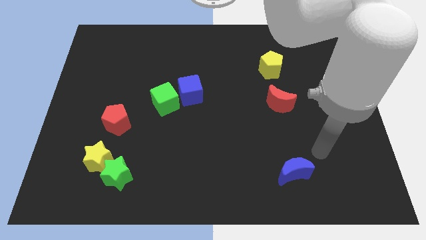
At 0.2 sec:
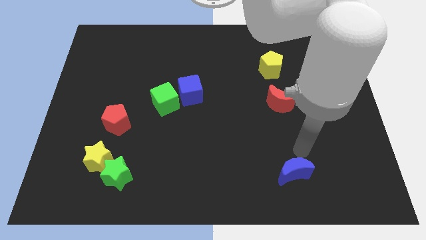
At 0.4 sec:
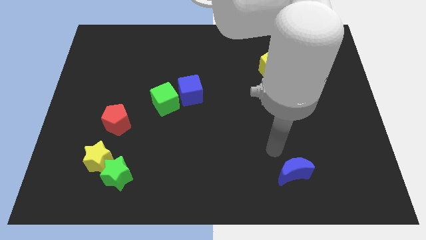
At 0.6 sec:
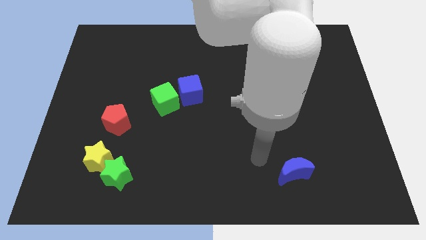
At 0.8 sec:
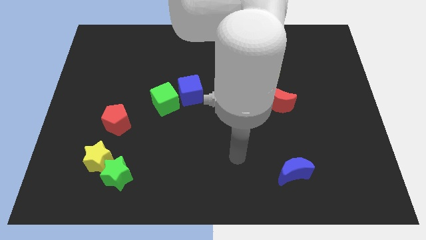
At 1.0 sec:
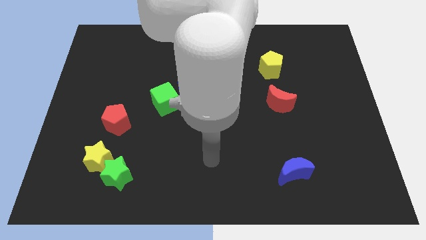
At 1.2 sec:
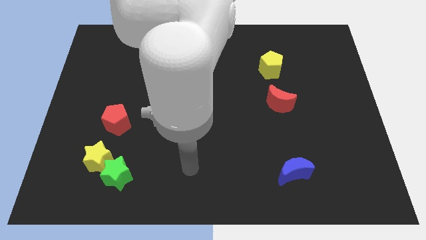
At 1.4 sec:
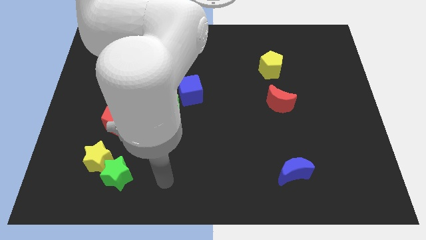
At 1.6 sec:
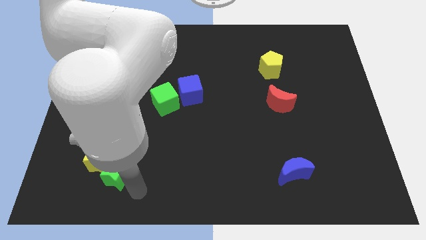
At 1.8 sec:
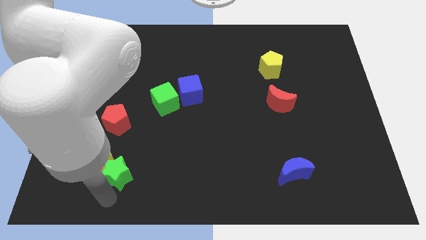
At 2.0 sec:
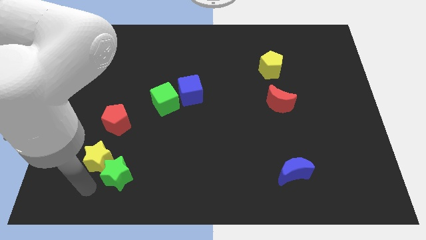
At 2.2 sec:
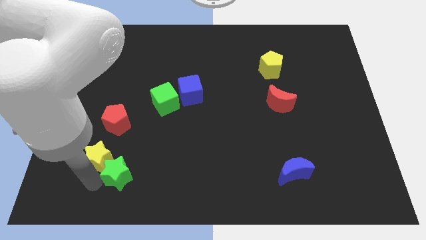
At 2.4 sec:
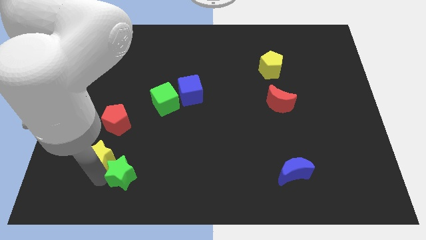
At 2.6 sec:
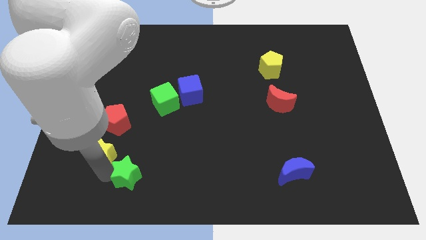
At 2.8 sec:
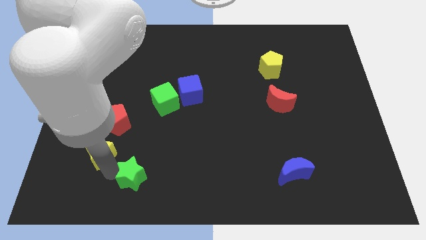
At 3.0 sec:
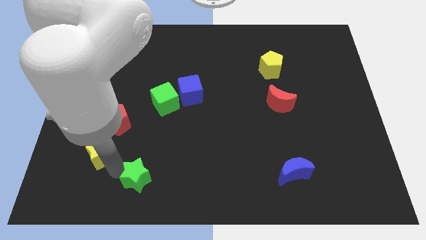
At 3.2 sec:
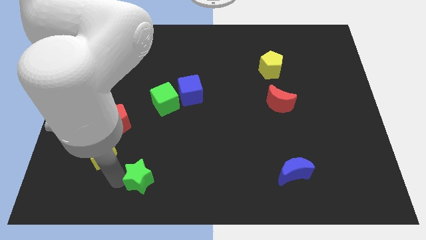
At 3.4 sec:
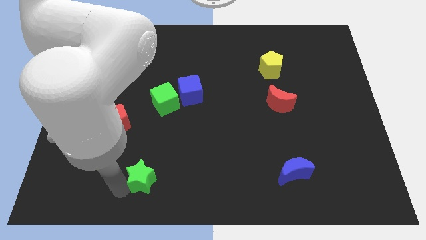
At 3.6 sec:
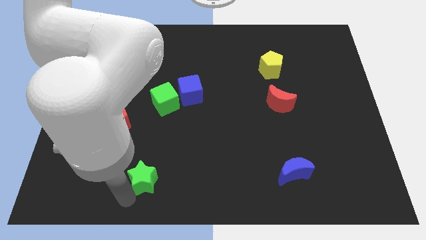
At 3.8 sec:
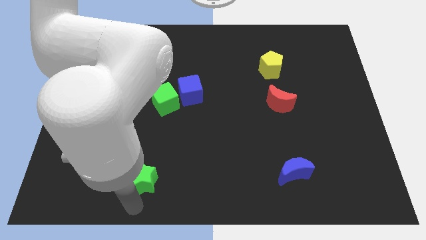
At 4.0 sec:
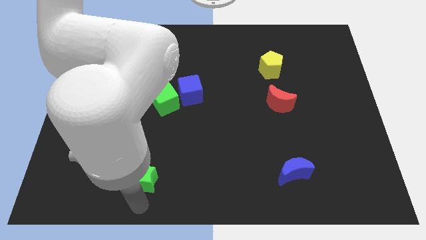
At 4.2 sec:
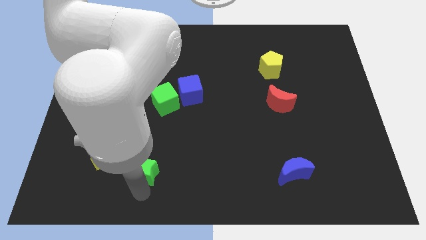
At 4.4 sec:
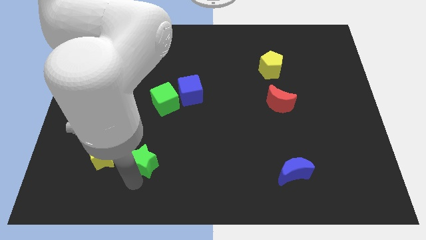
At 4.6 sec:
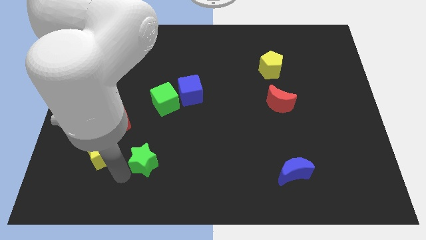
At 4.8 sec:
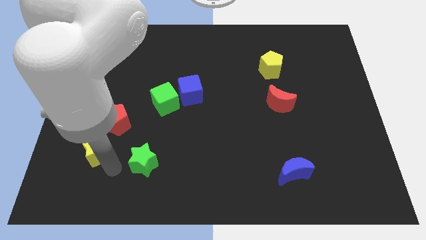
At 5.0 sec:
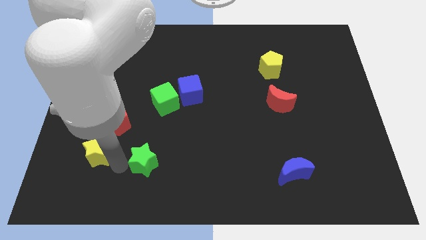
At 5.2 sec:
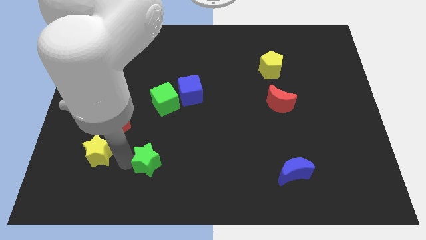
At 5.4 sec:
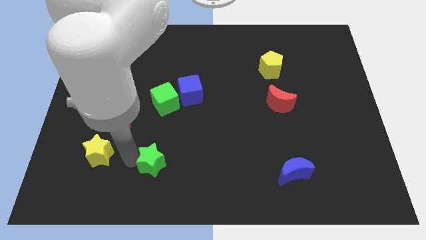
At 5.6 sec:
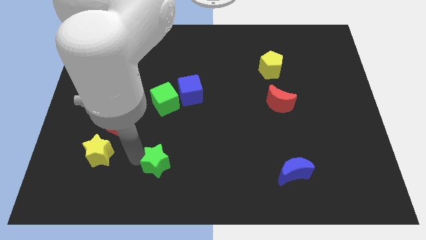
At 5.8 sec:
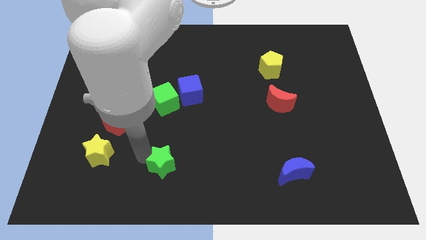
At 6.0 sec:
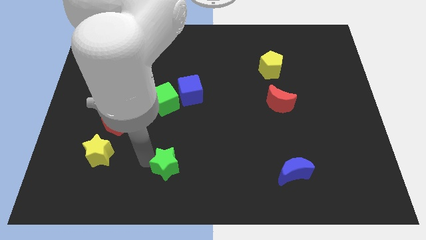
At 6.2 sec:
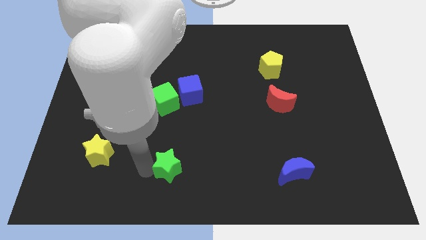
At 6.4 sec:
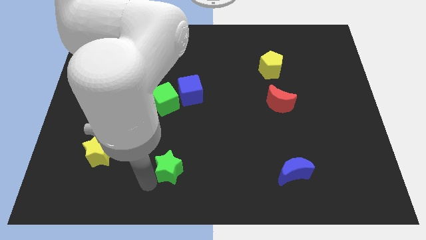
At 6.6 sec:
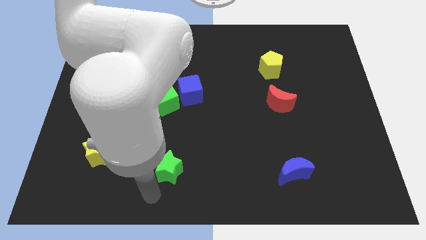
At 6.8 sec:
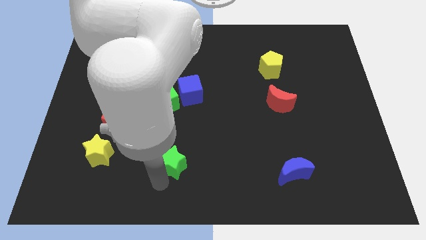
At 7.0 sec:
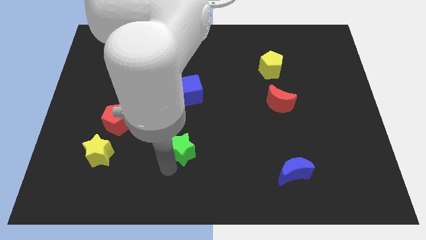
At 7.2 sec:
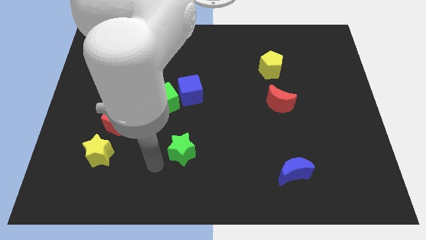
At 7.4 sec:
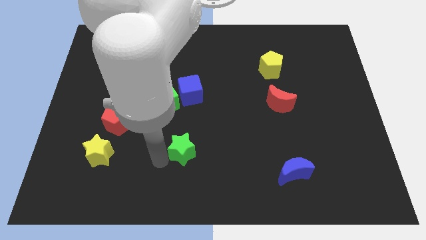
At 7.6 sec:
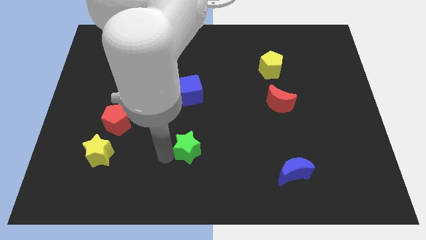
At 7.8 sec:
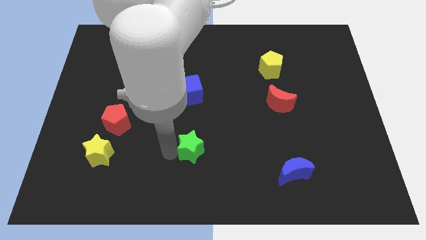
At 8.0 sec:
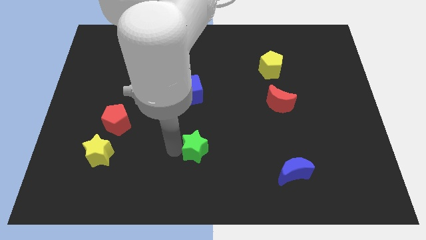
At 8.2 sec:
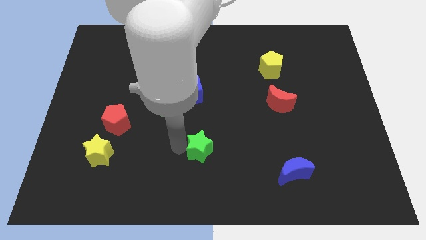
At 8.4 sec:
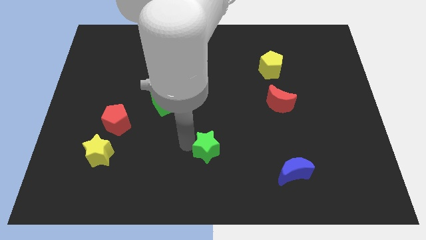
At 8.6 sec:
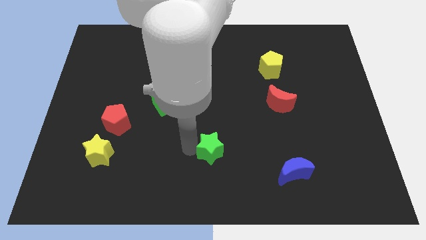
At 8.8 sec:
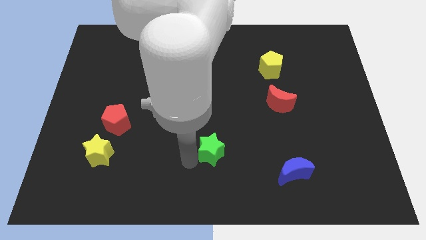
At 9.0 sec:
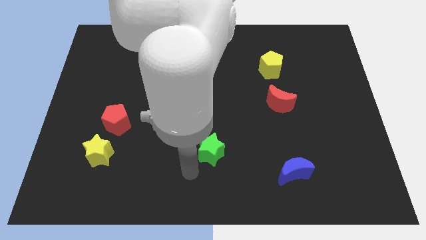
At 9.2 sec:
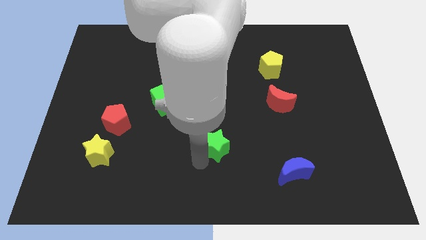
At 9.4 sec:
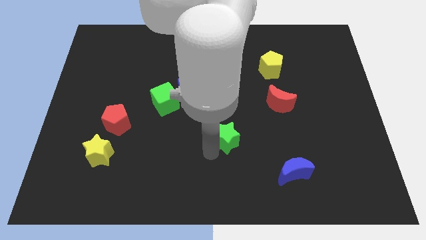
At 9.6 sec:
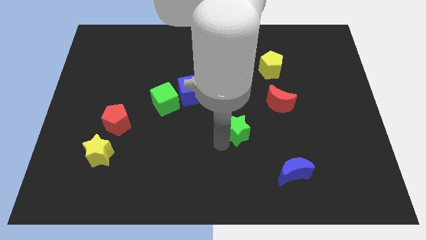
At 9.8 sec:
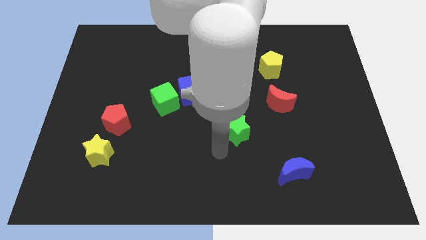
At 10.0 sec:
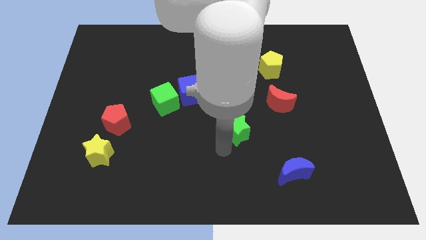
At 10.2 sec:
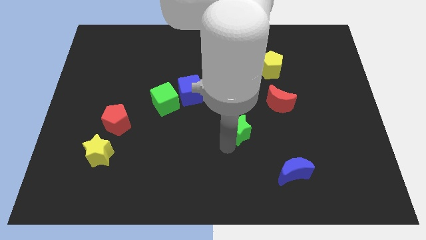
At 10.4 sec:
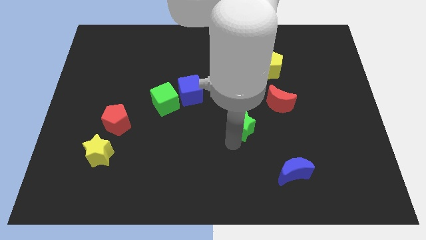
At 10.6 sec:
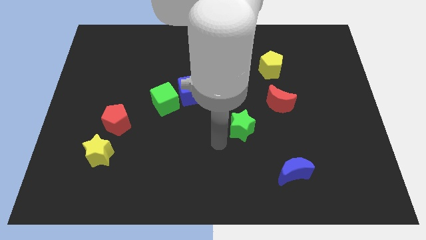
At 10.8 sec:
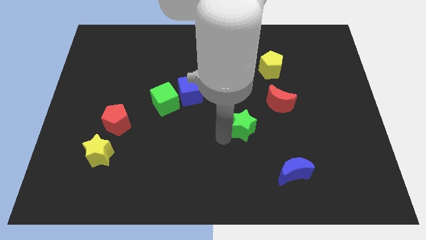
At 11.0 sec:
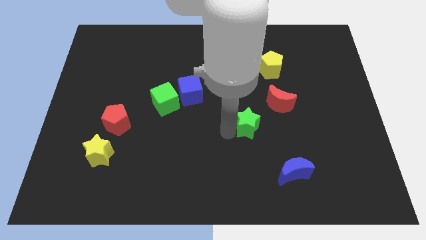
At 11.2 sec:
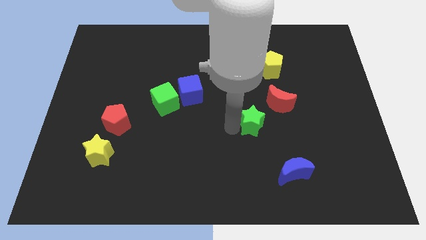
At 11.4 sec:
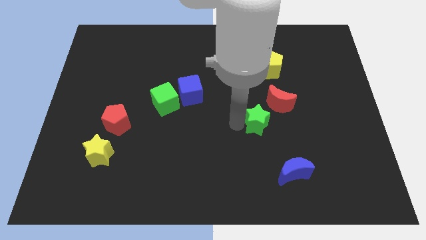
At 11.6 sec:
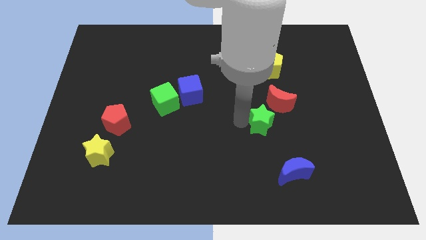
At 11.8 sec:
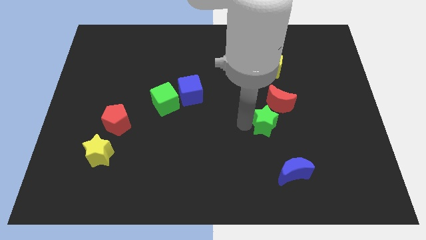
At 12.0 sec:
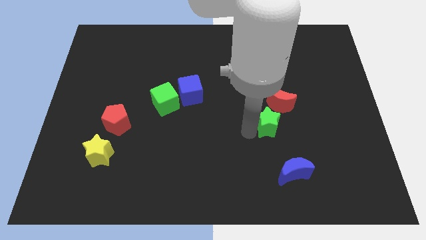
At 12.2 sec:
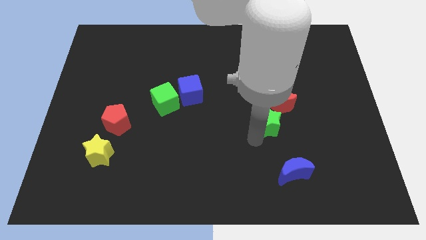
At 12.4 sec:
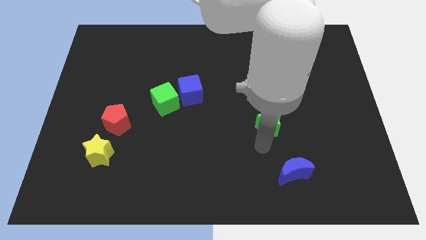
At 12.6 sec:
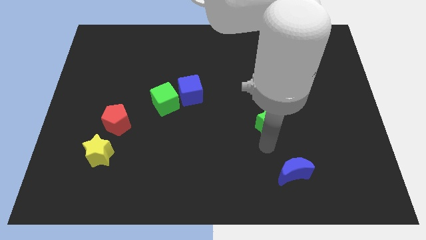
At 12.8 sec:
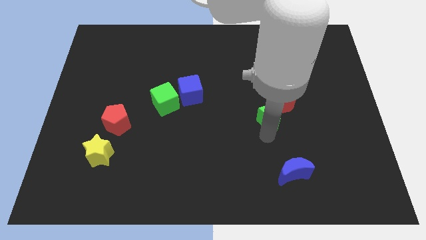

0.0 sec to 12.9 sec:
move the green star towards the red moon

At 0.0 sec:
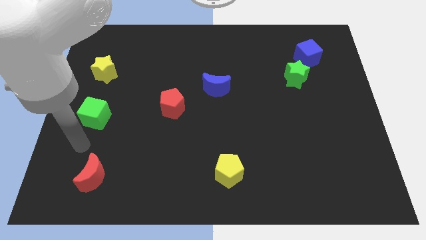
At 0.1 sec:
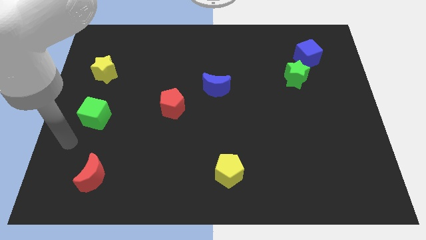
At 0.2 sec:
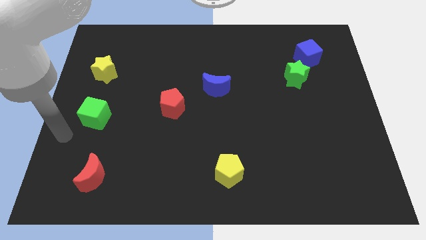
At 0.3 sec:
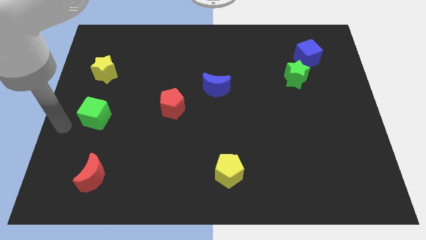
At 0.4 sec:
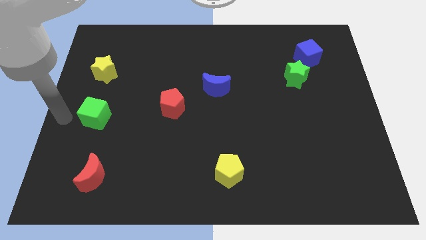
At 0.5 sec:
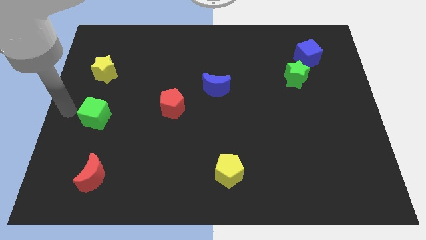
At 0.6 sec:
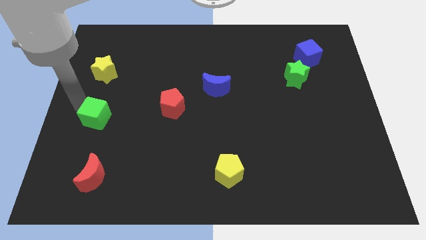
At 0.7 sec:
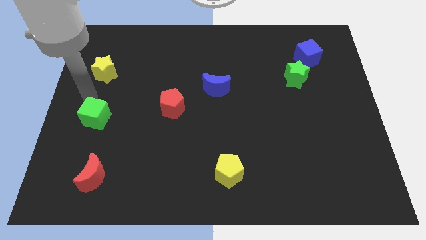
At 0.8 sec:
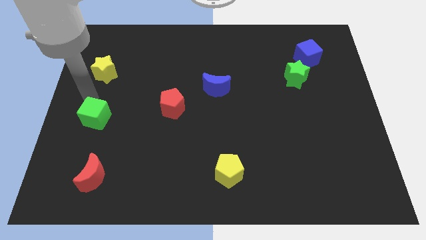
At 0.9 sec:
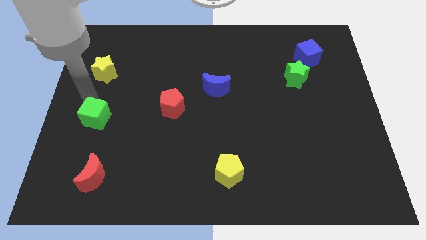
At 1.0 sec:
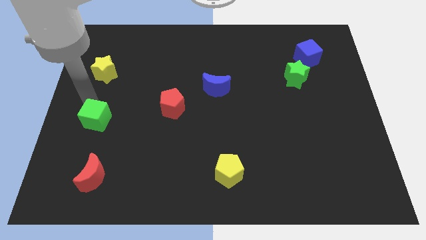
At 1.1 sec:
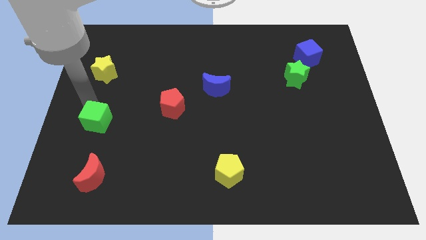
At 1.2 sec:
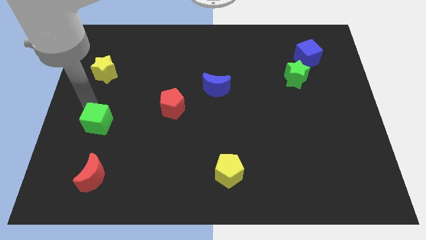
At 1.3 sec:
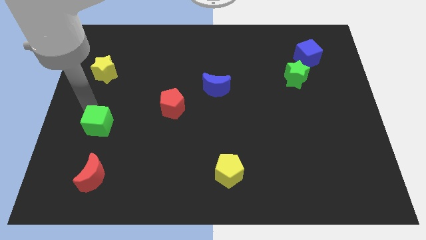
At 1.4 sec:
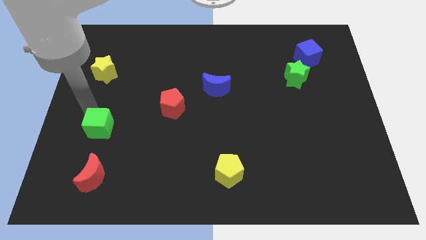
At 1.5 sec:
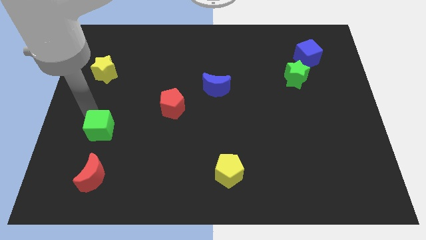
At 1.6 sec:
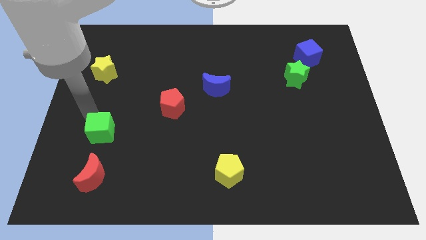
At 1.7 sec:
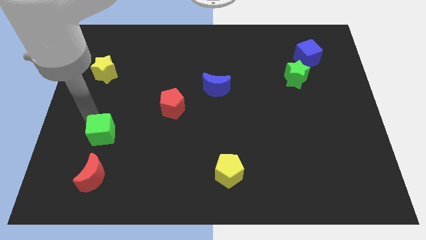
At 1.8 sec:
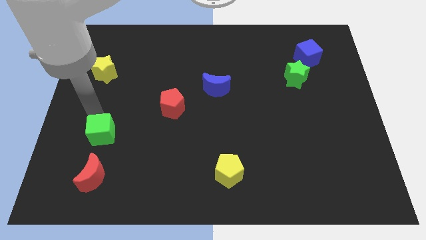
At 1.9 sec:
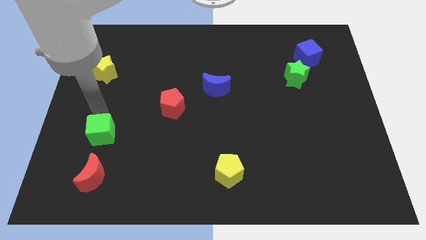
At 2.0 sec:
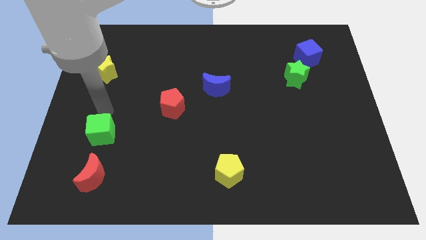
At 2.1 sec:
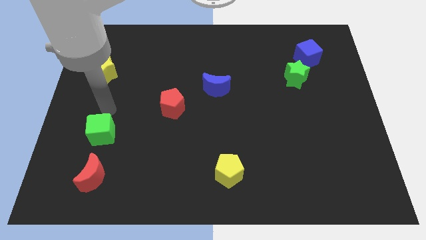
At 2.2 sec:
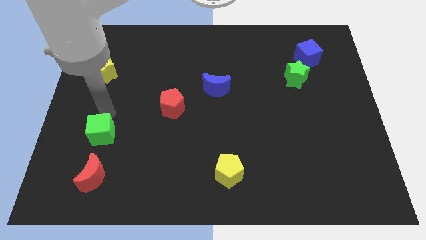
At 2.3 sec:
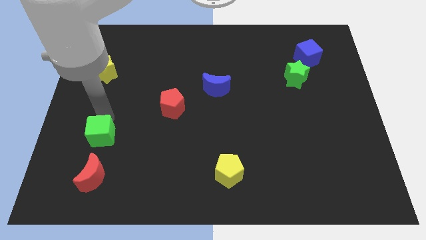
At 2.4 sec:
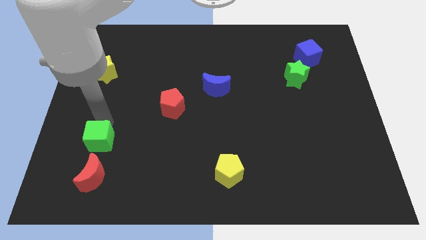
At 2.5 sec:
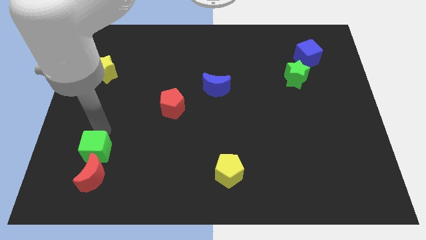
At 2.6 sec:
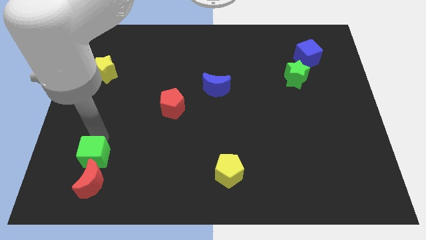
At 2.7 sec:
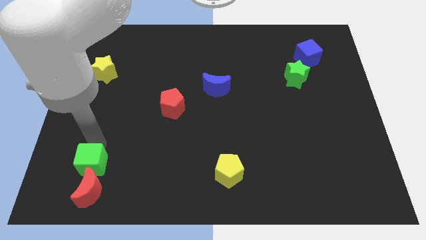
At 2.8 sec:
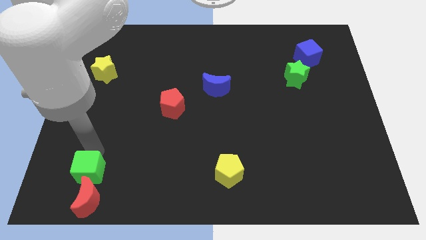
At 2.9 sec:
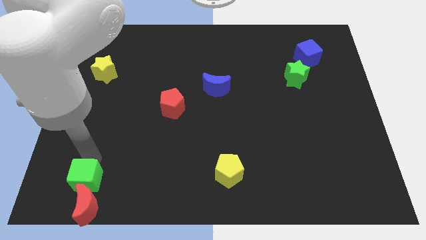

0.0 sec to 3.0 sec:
move the green cube close to the red moon
